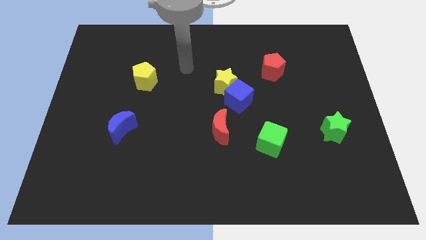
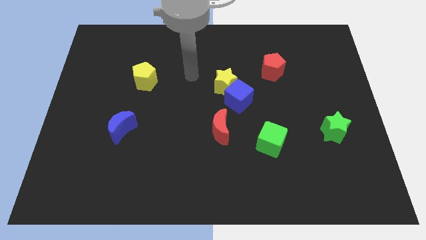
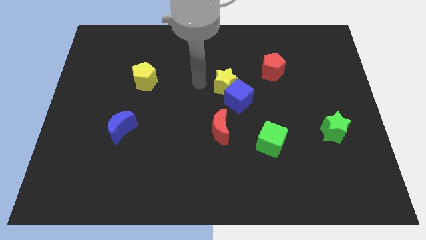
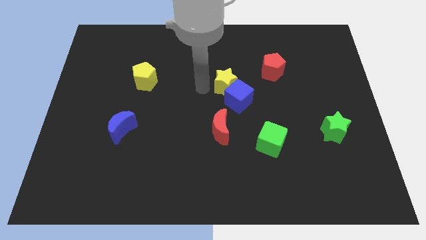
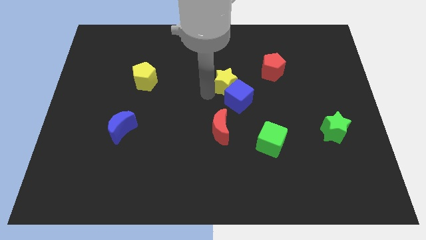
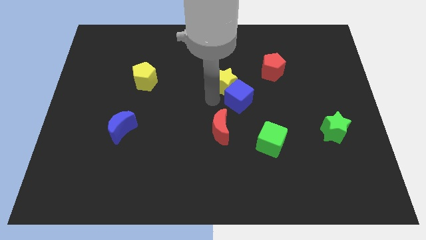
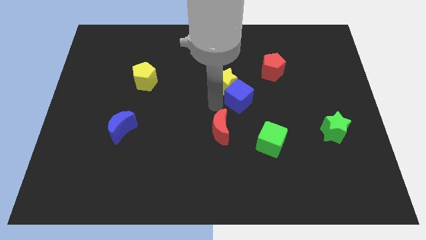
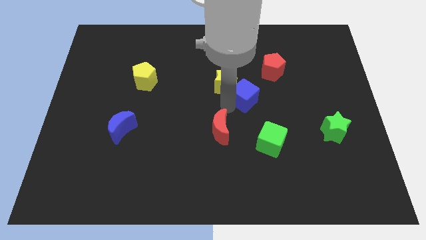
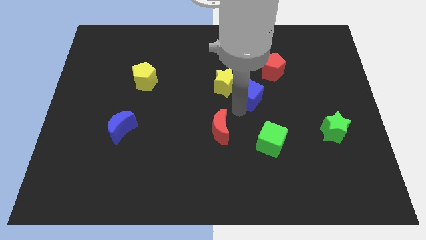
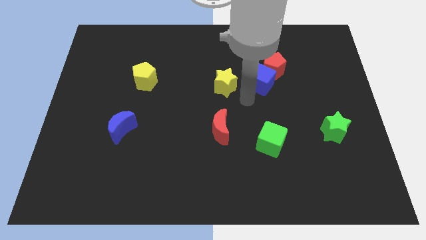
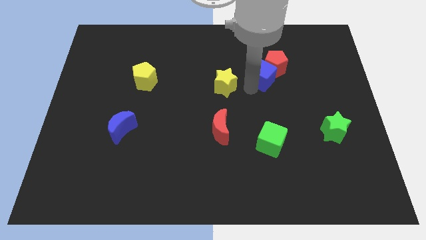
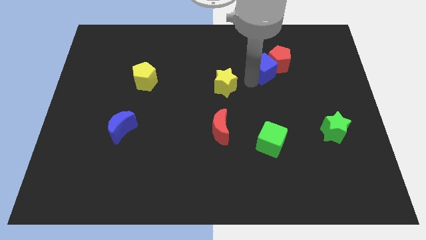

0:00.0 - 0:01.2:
separate the yellow star from the blue cube

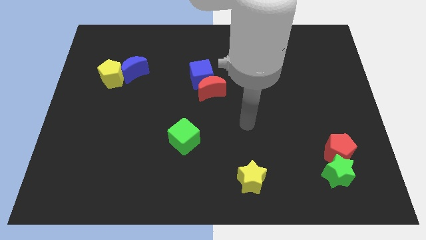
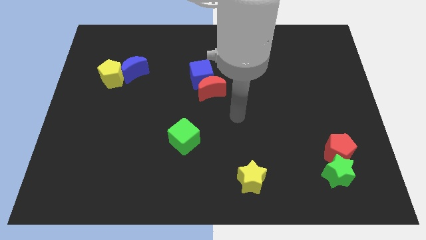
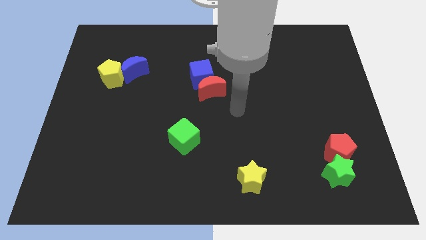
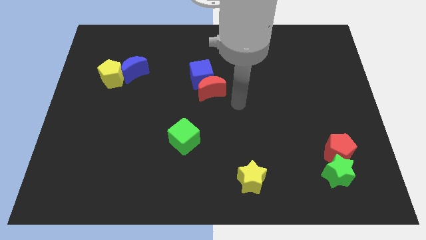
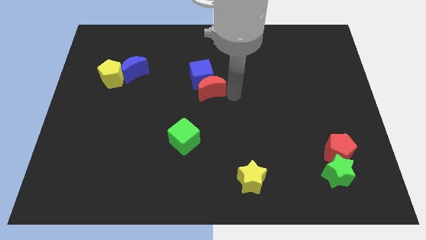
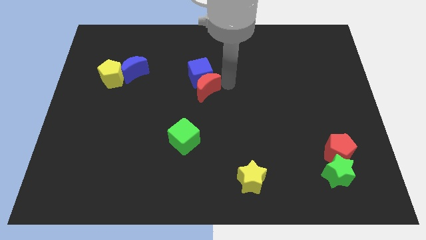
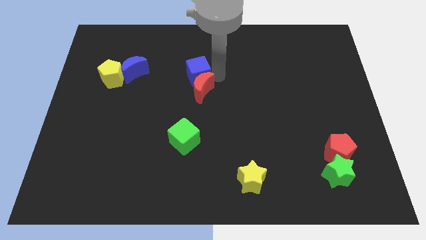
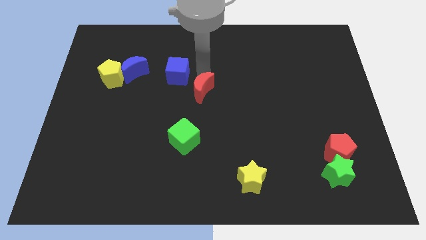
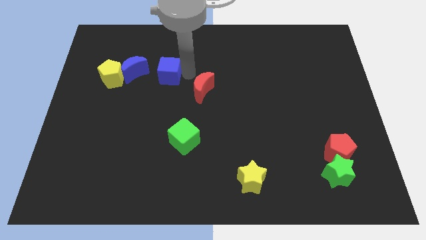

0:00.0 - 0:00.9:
separate the red moon from the blue cube

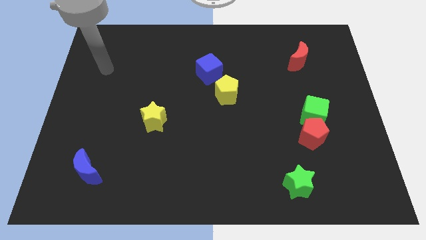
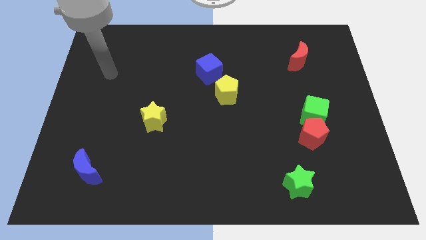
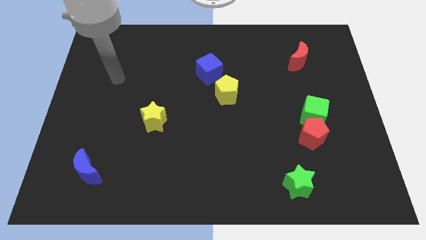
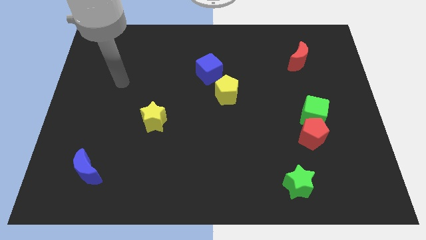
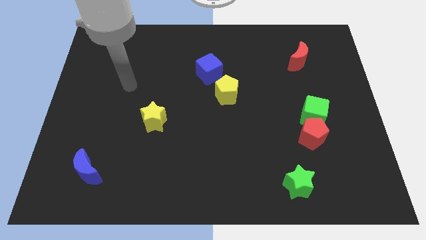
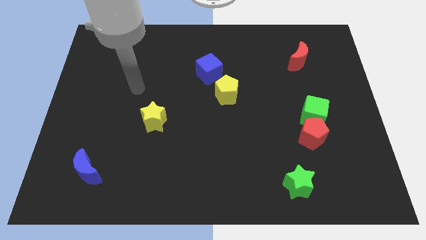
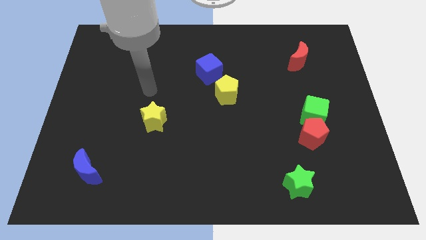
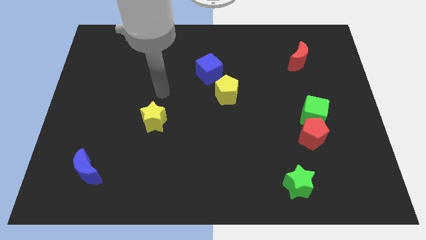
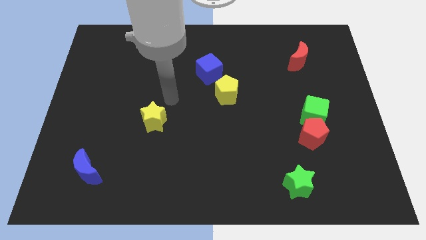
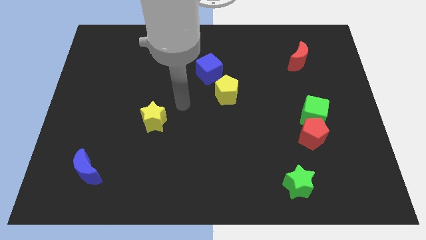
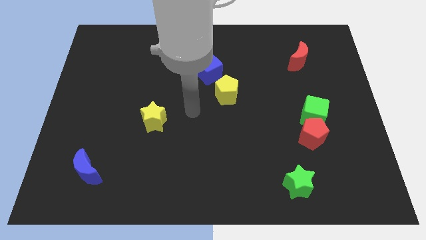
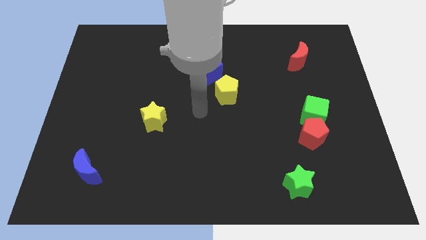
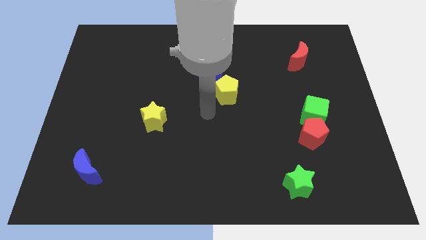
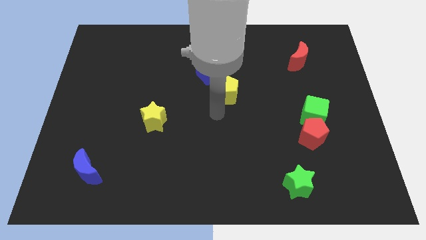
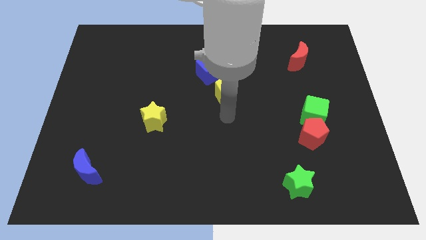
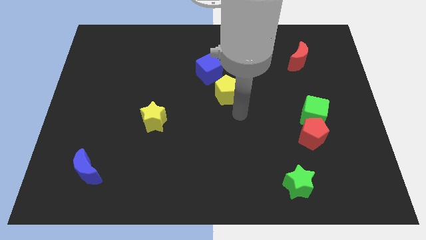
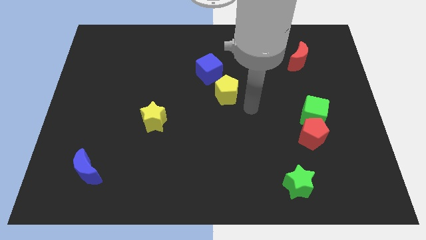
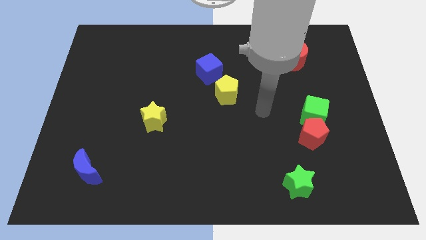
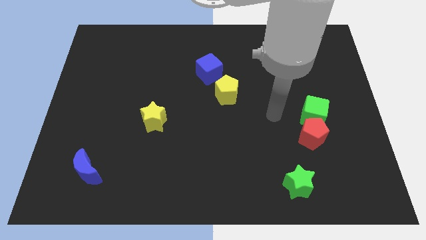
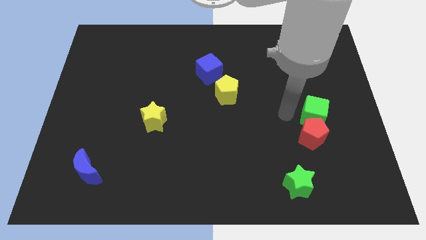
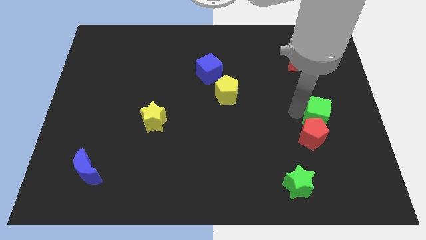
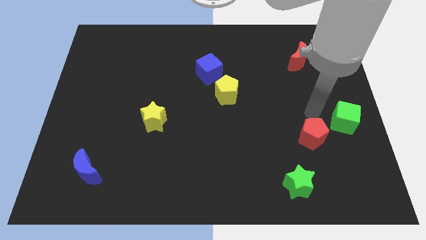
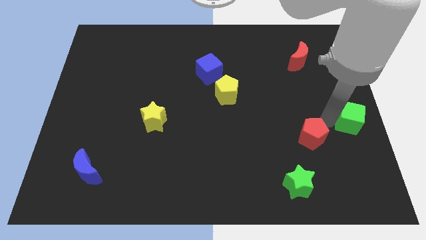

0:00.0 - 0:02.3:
move the red pentagon away from the green cube

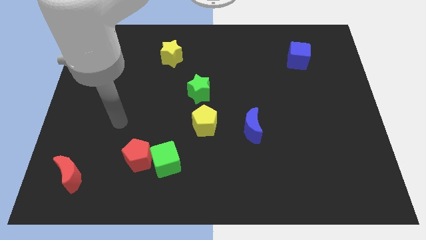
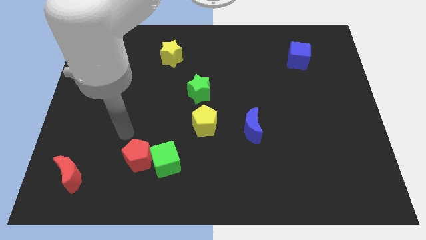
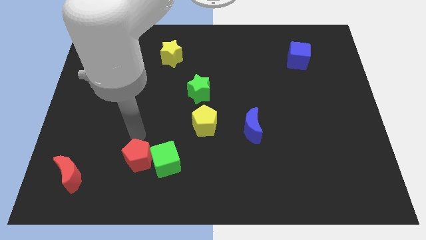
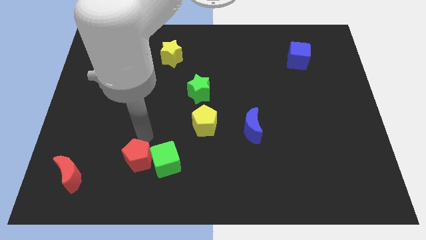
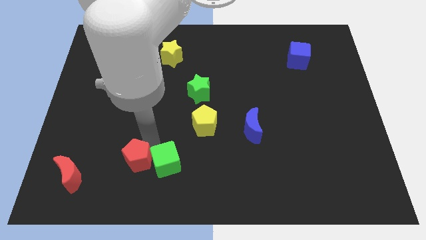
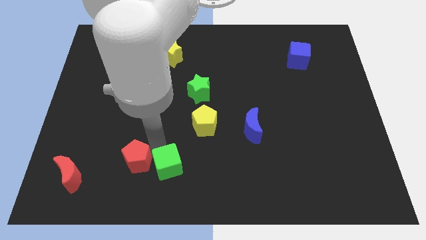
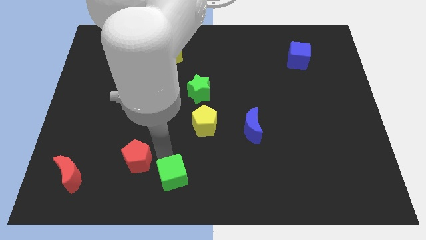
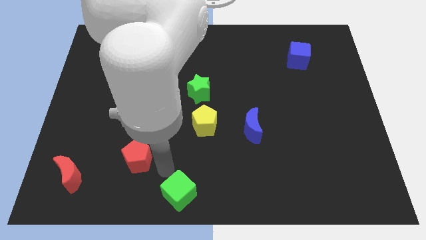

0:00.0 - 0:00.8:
pull the red pentagon apart from the green cube

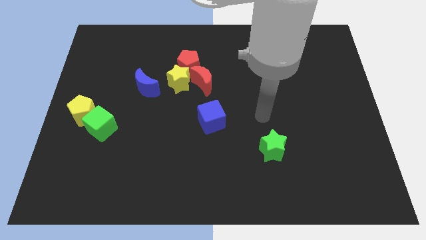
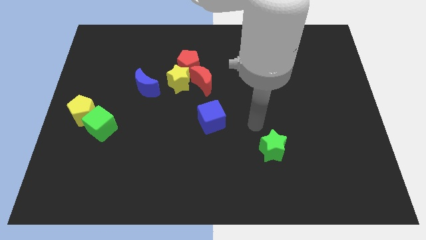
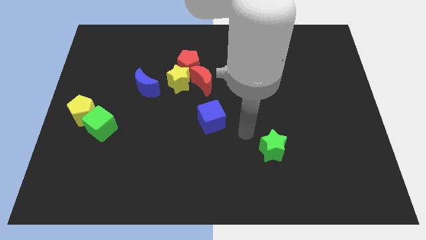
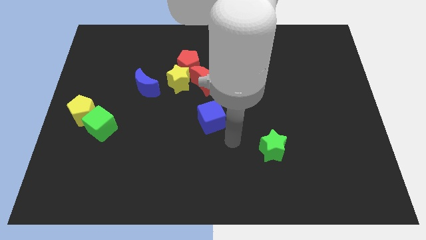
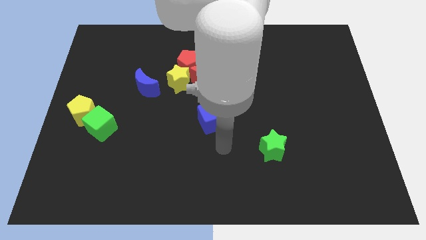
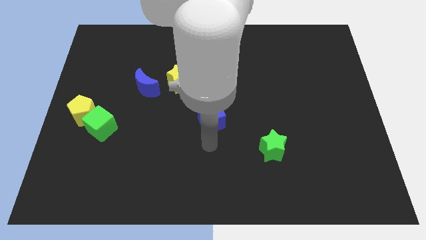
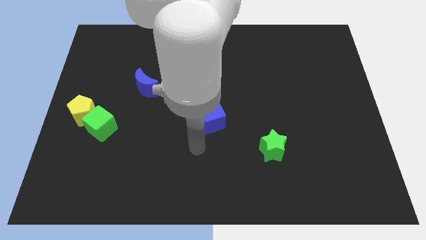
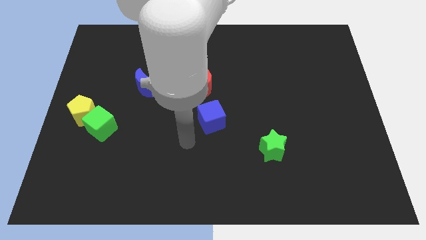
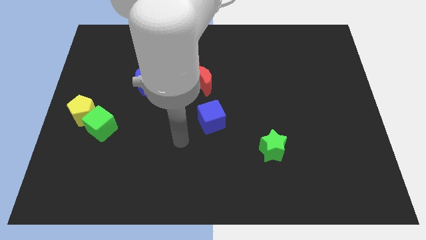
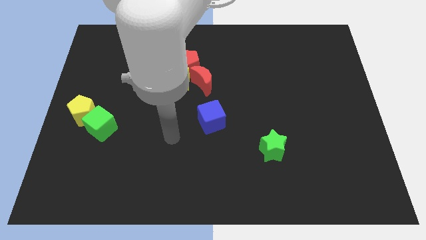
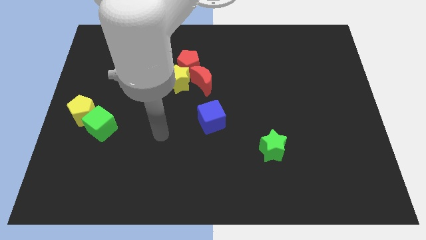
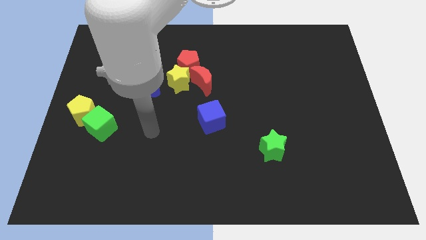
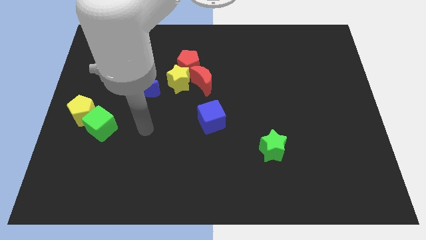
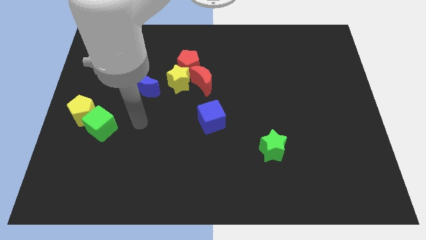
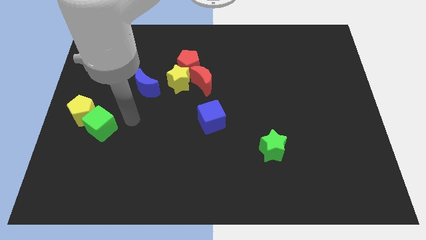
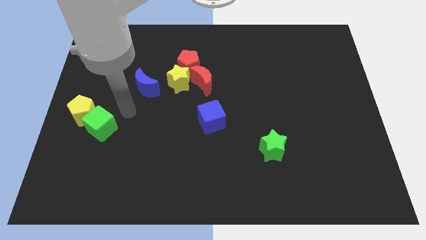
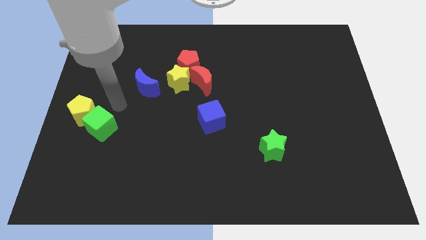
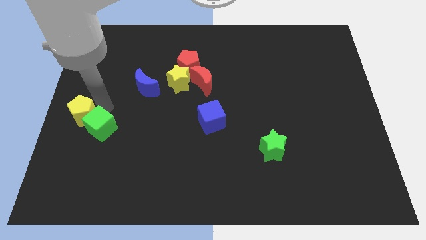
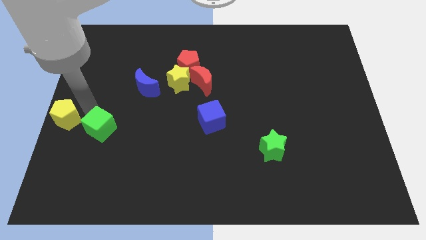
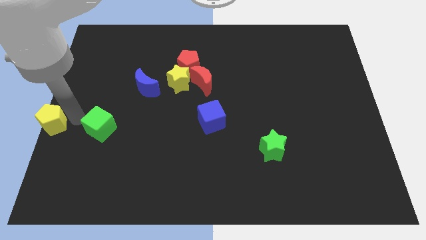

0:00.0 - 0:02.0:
move the green cube away from the yellow pentagon

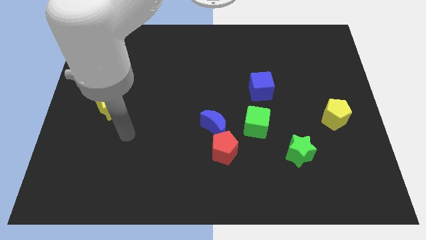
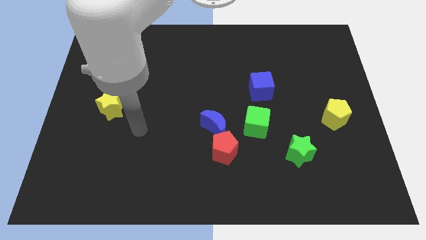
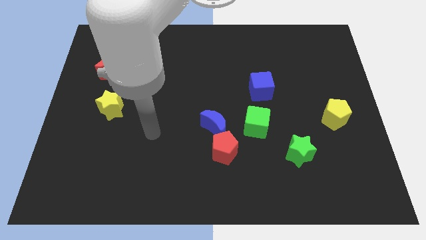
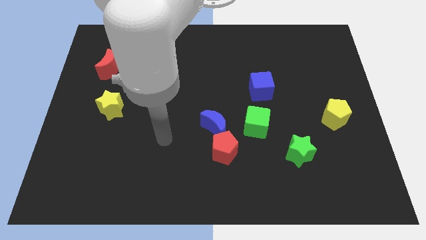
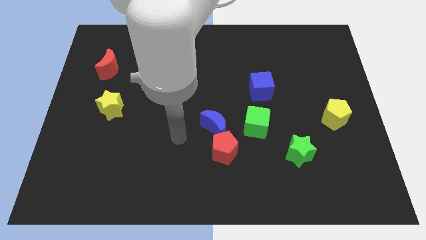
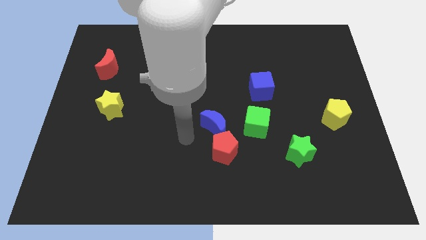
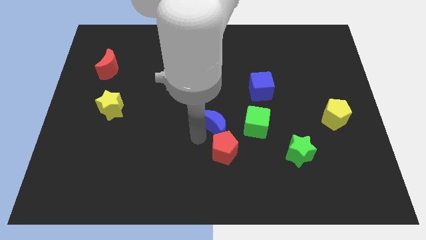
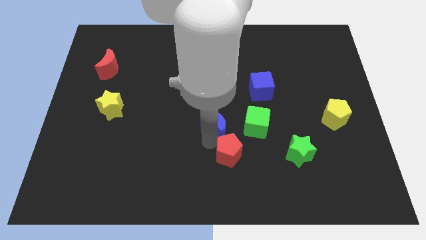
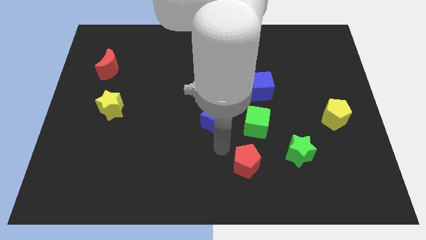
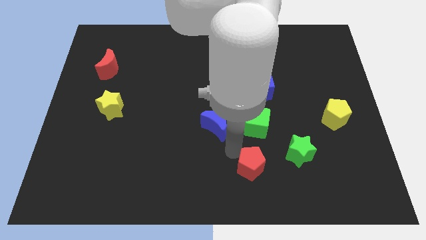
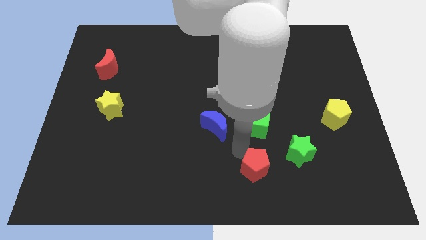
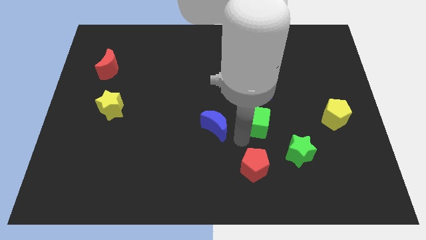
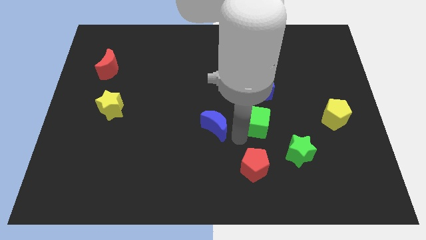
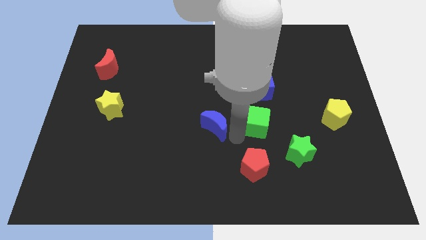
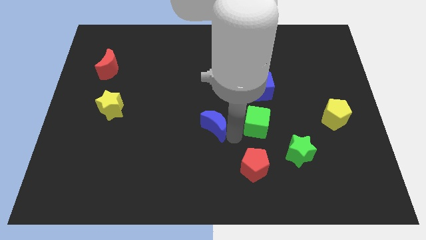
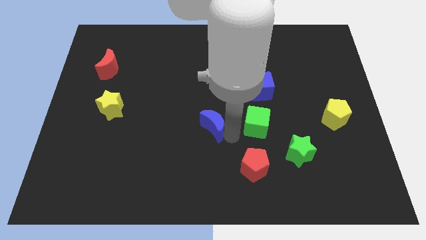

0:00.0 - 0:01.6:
separate the blue moon from the red pentagon and green cube

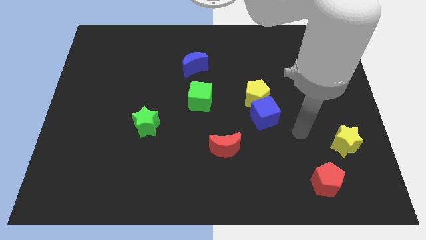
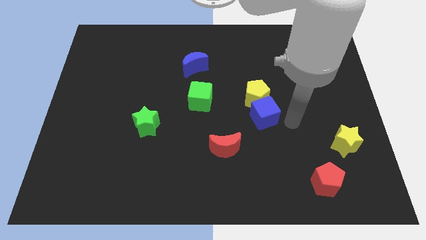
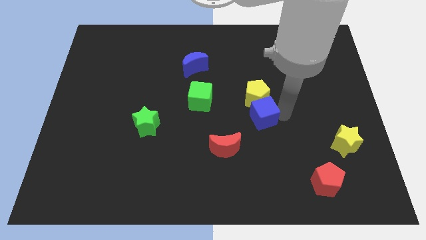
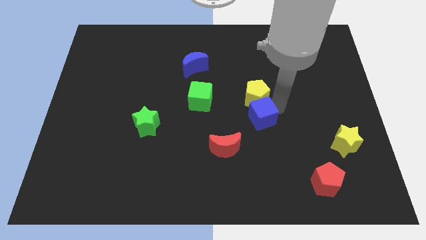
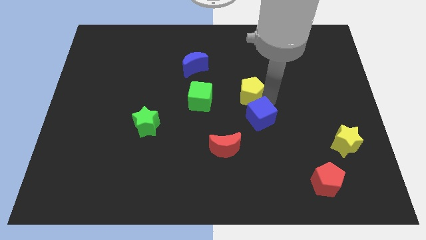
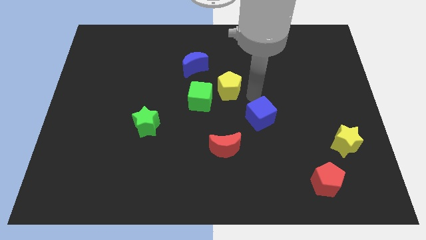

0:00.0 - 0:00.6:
pull the blue cube apart from the yellow pentagon

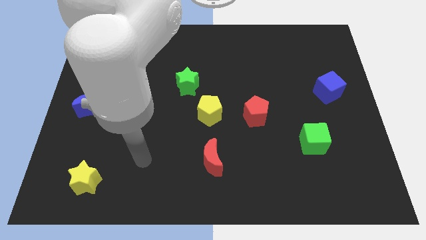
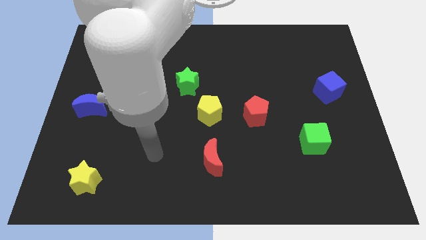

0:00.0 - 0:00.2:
pull the green star apart from the yellow pentagon
